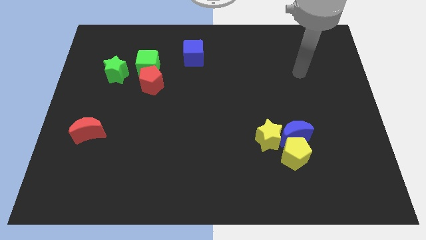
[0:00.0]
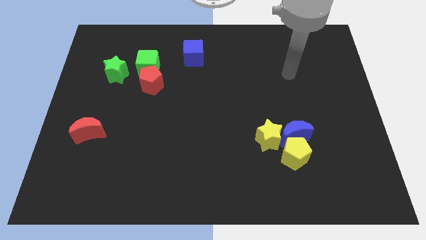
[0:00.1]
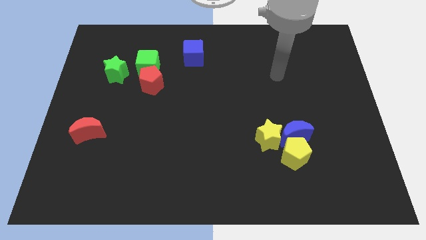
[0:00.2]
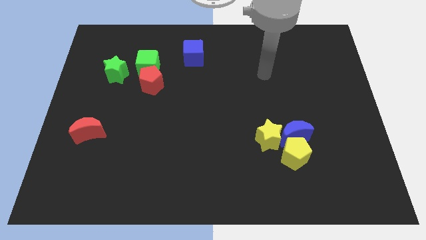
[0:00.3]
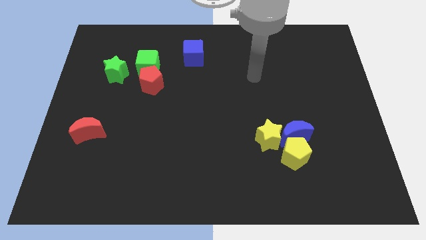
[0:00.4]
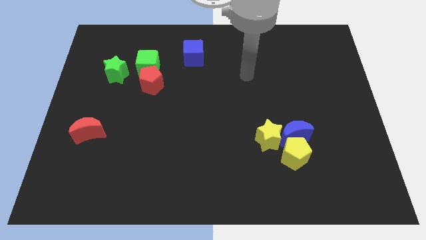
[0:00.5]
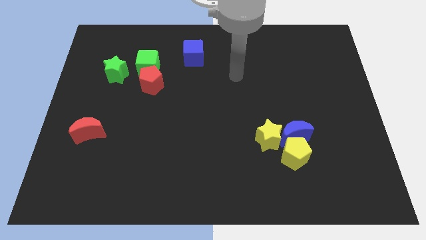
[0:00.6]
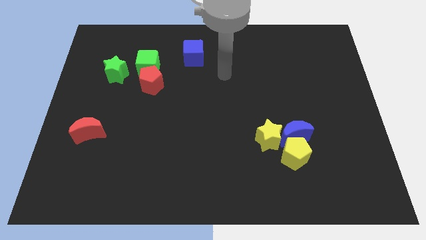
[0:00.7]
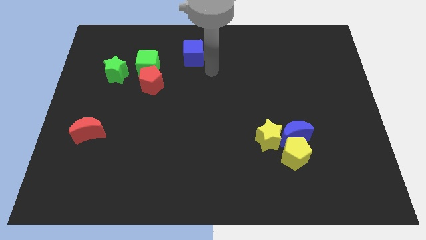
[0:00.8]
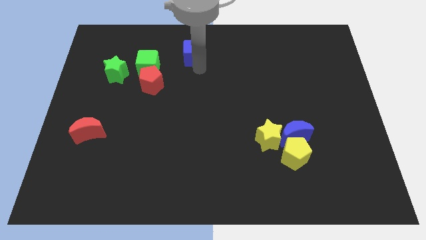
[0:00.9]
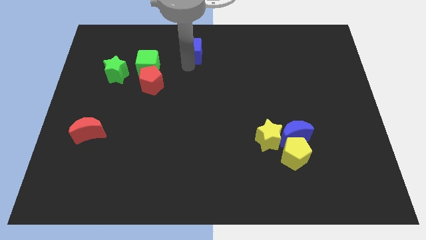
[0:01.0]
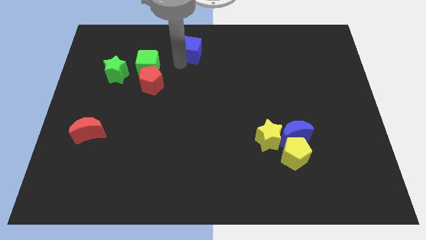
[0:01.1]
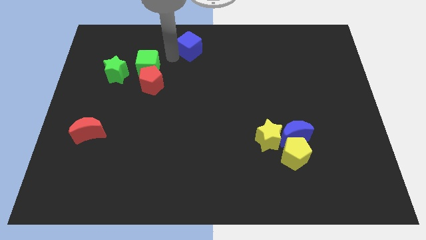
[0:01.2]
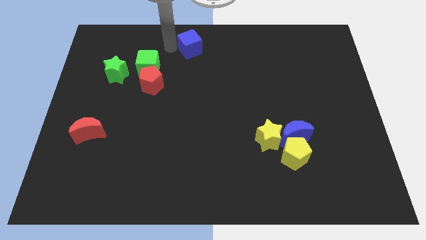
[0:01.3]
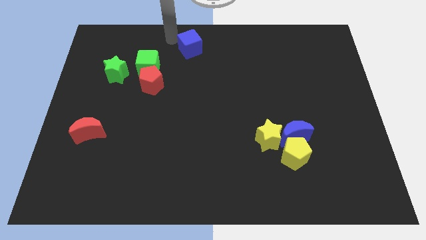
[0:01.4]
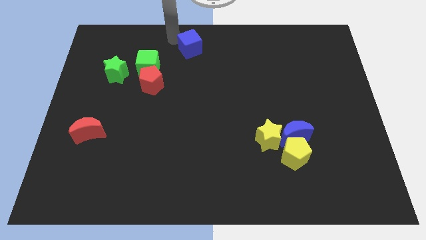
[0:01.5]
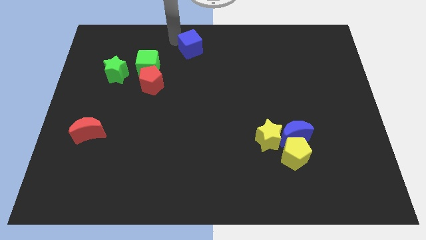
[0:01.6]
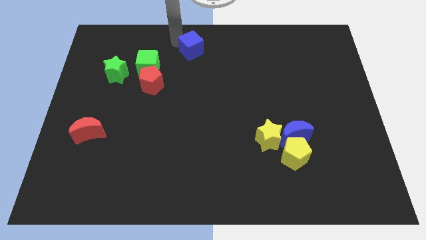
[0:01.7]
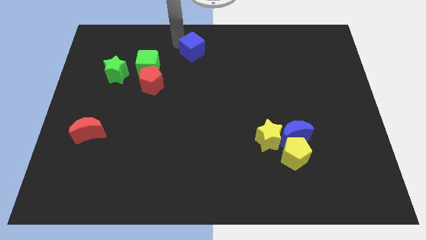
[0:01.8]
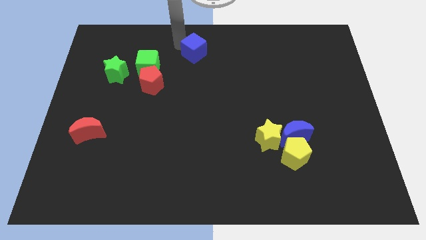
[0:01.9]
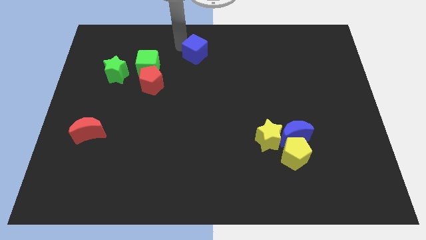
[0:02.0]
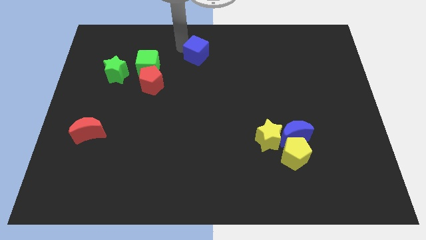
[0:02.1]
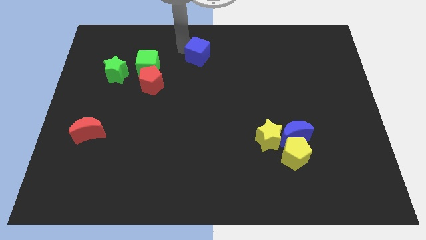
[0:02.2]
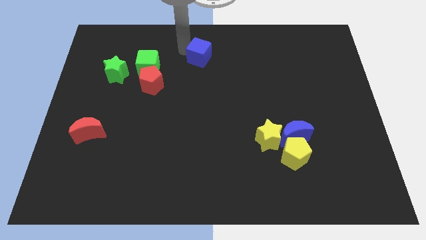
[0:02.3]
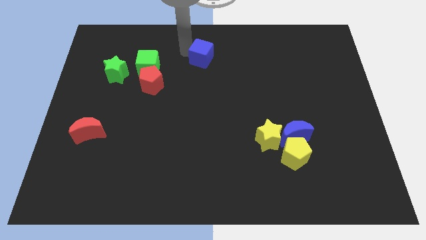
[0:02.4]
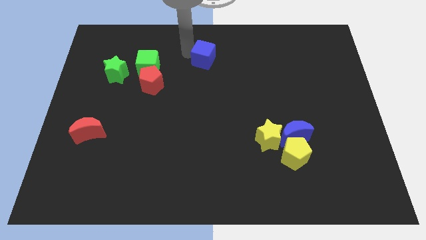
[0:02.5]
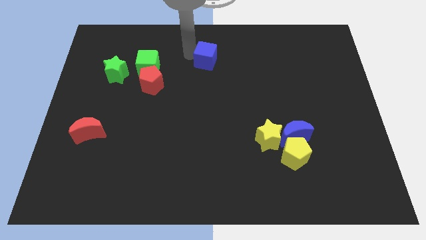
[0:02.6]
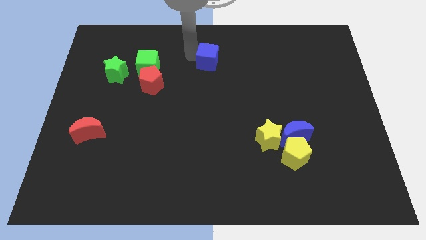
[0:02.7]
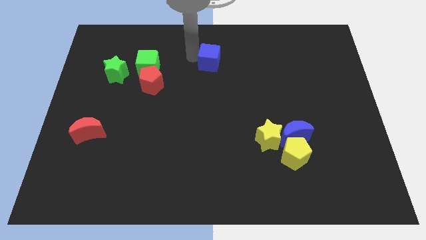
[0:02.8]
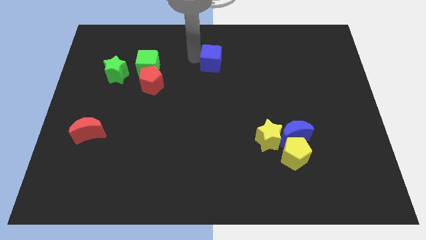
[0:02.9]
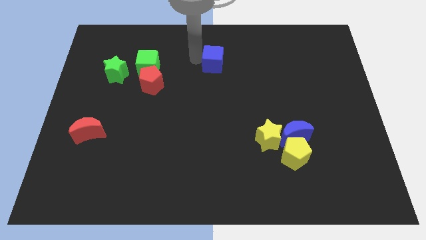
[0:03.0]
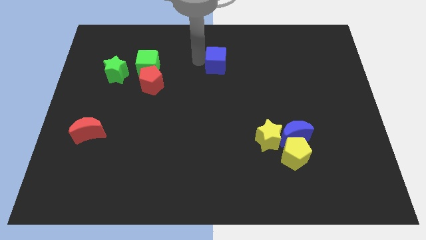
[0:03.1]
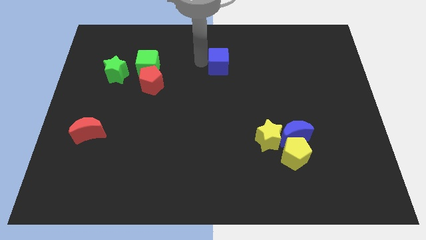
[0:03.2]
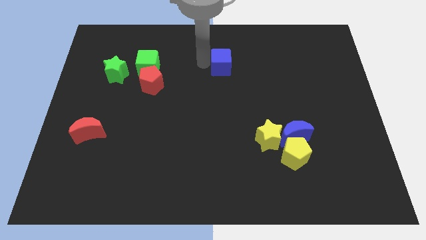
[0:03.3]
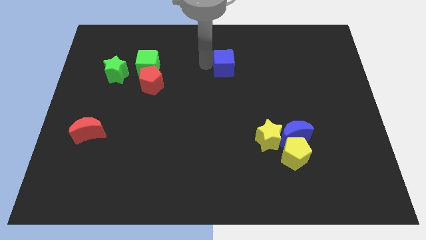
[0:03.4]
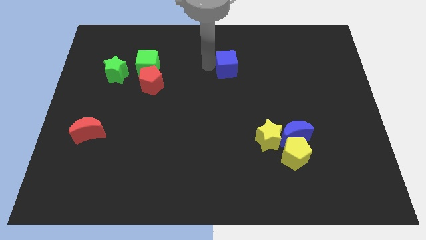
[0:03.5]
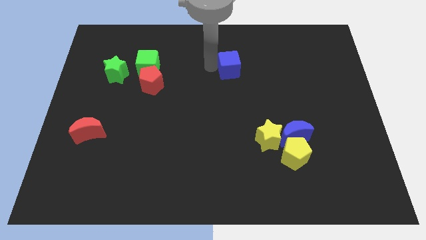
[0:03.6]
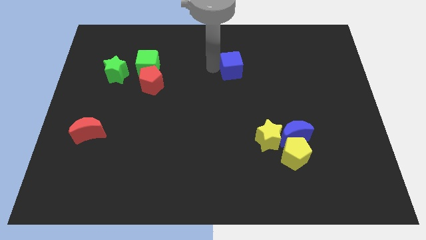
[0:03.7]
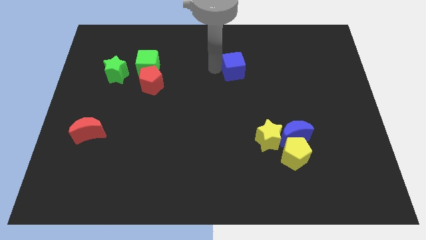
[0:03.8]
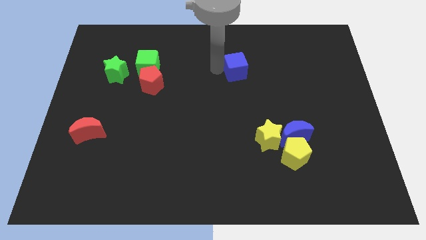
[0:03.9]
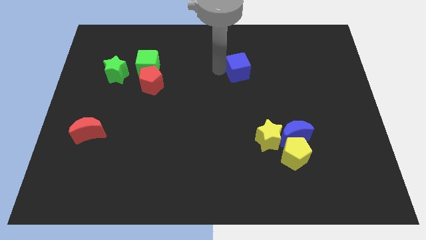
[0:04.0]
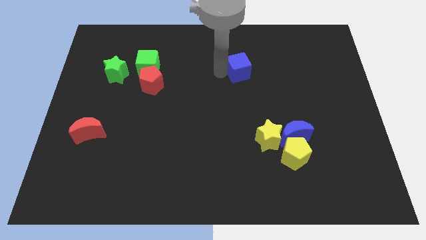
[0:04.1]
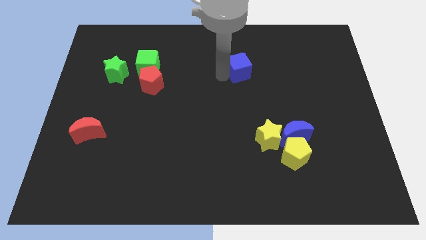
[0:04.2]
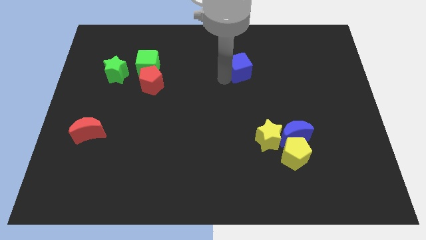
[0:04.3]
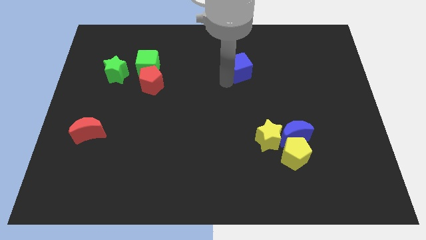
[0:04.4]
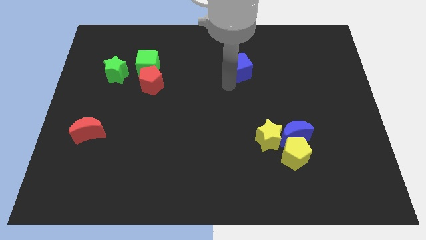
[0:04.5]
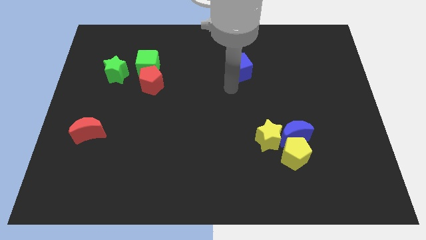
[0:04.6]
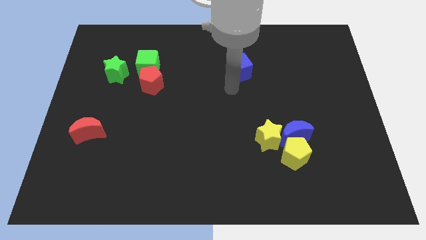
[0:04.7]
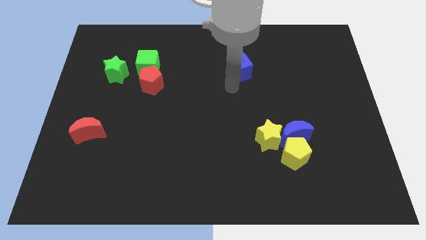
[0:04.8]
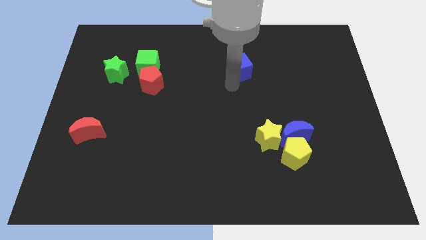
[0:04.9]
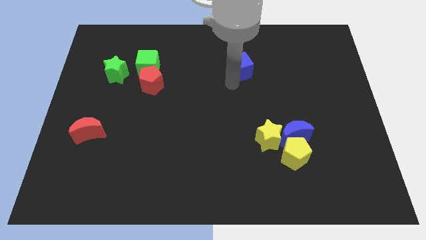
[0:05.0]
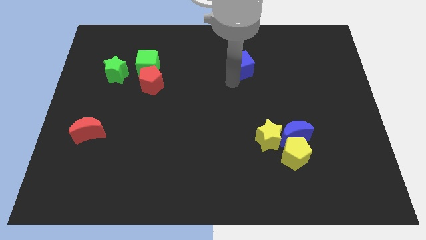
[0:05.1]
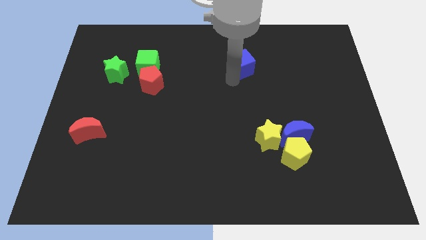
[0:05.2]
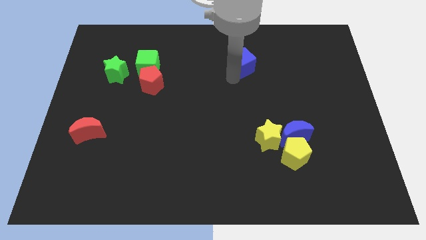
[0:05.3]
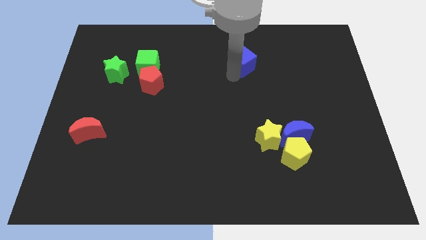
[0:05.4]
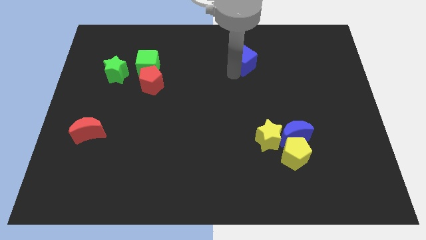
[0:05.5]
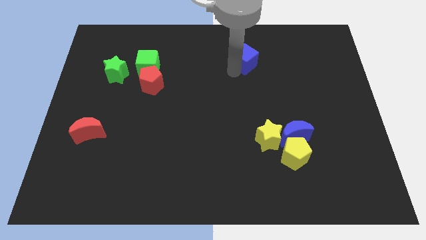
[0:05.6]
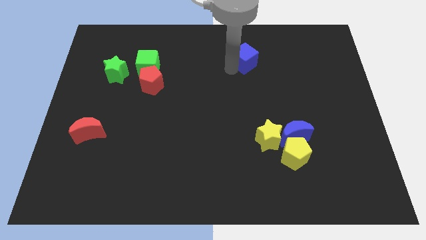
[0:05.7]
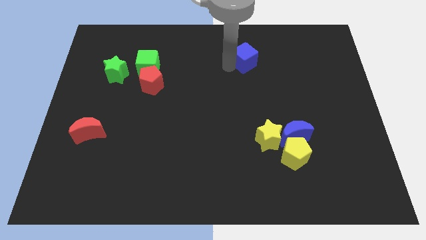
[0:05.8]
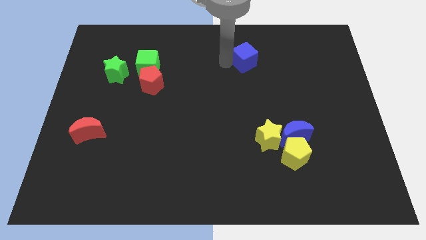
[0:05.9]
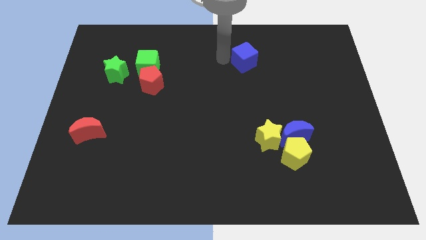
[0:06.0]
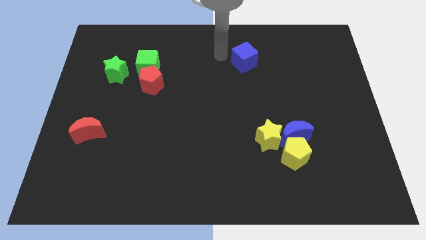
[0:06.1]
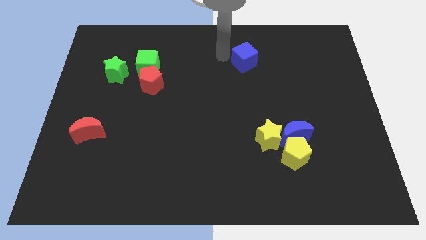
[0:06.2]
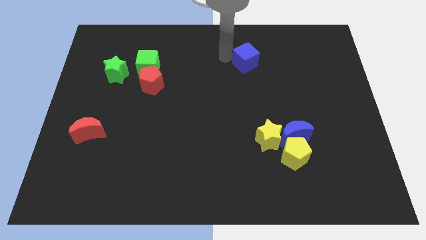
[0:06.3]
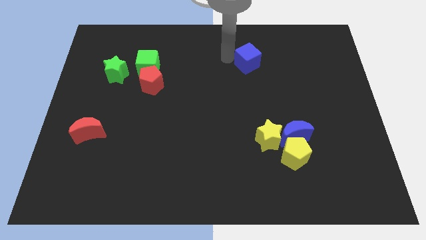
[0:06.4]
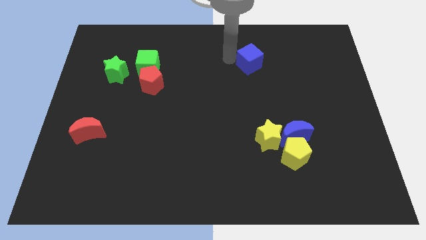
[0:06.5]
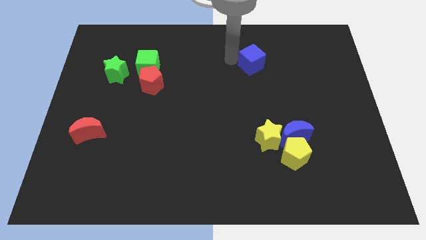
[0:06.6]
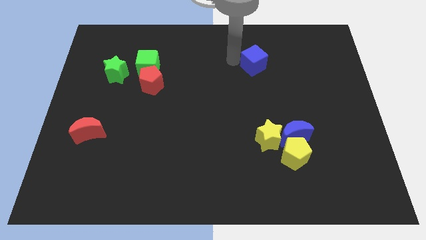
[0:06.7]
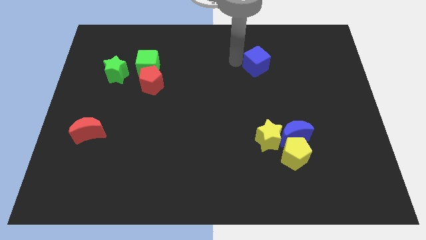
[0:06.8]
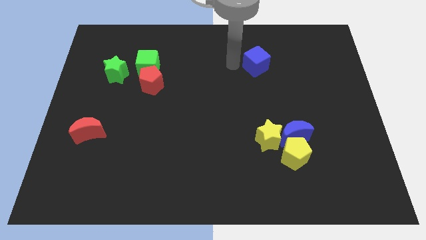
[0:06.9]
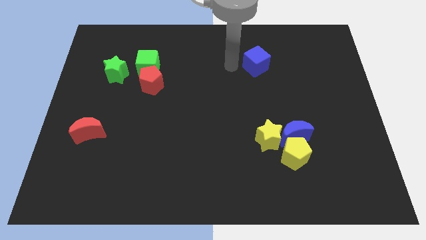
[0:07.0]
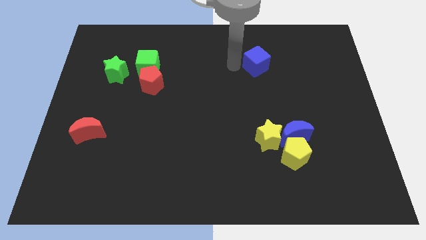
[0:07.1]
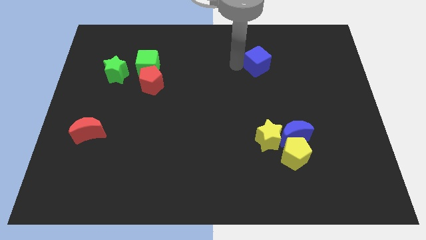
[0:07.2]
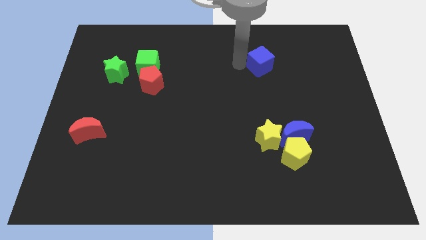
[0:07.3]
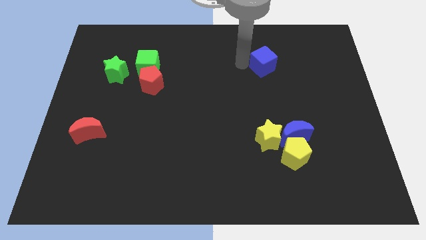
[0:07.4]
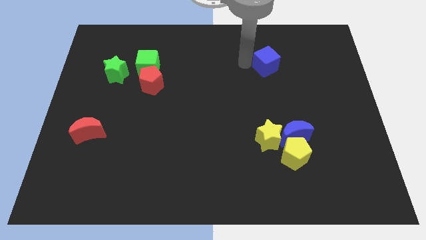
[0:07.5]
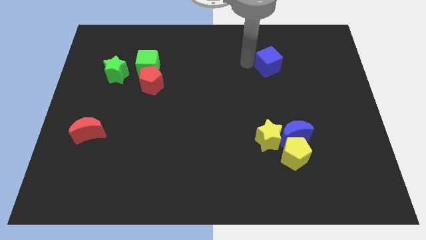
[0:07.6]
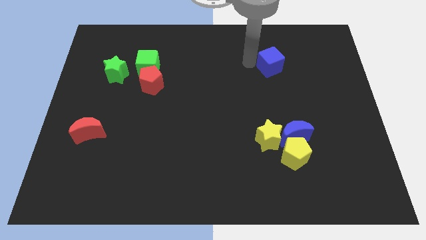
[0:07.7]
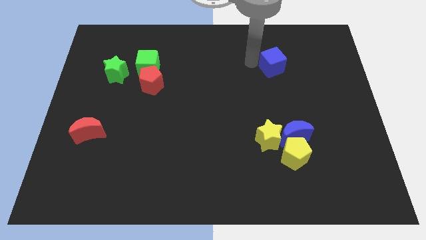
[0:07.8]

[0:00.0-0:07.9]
slide the blue cube right
